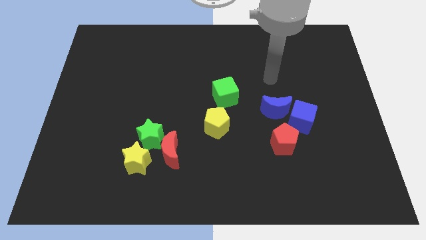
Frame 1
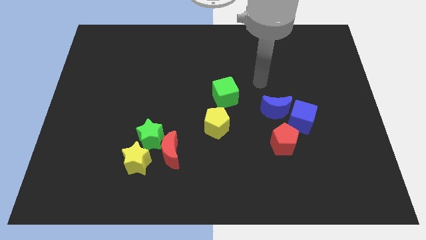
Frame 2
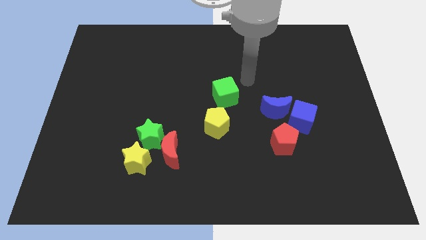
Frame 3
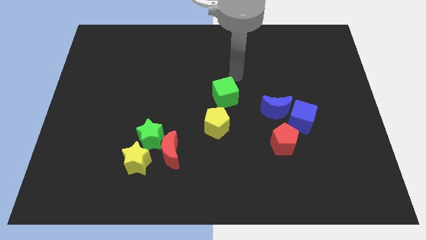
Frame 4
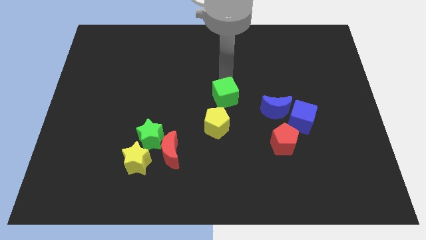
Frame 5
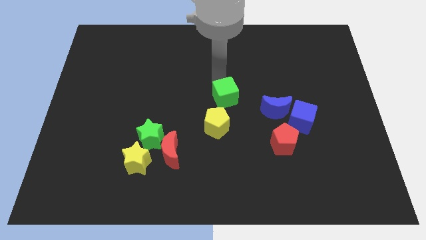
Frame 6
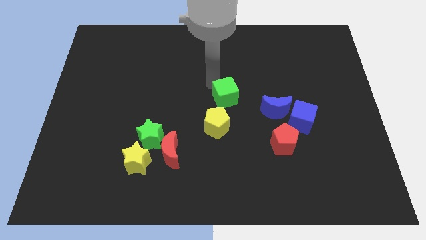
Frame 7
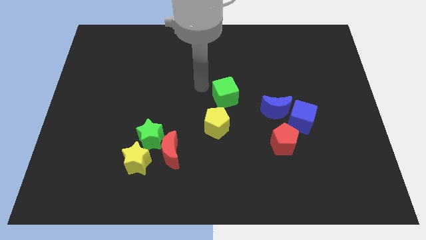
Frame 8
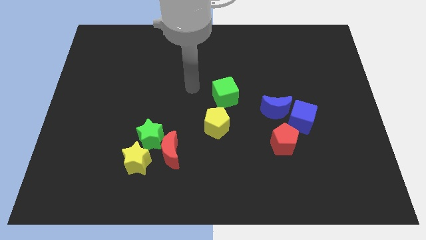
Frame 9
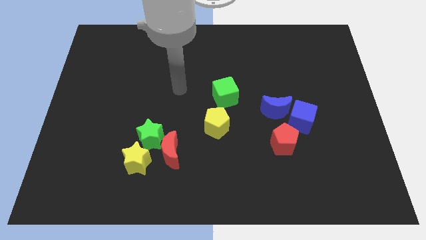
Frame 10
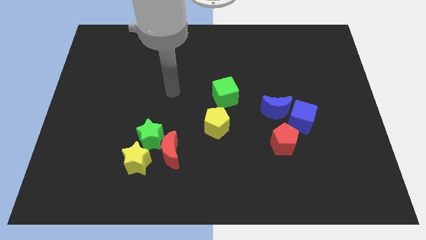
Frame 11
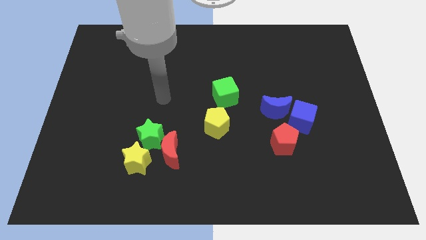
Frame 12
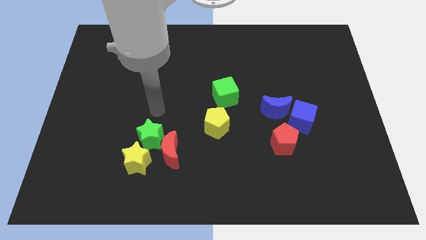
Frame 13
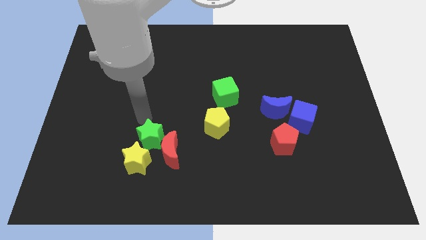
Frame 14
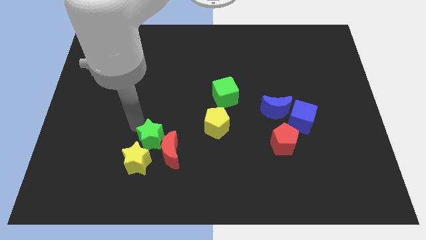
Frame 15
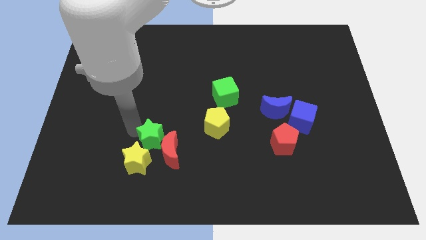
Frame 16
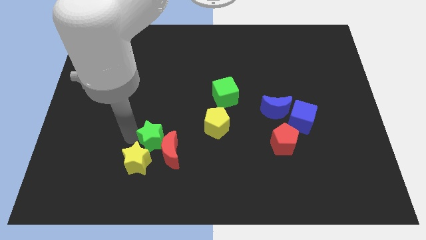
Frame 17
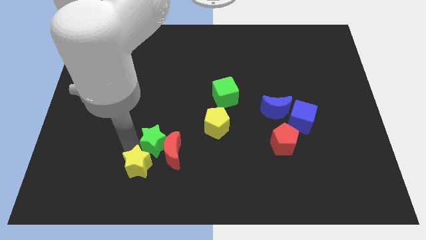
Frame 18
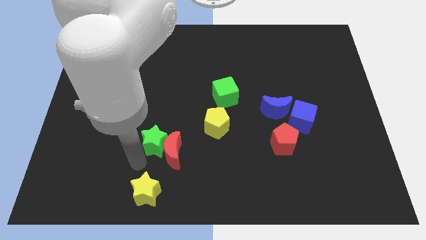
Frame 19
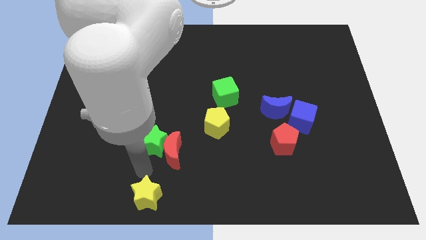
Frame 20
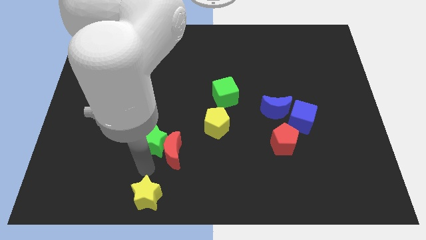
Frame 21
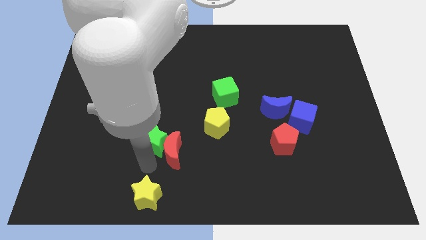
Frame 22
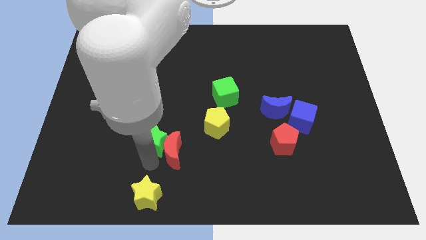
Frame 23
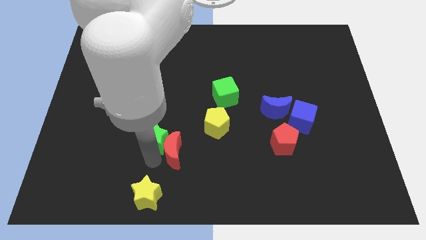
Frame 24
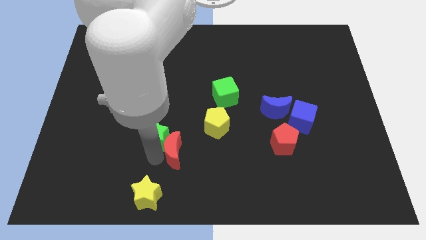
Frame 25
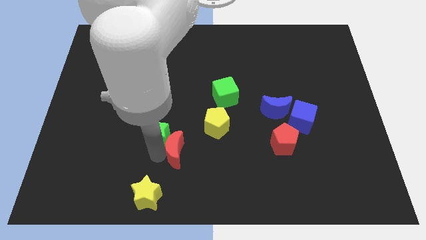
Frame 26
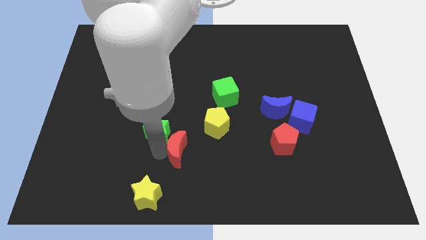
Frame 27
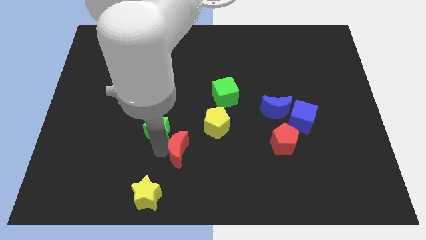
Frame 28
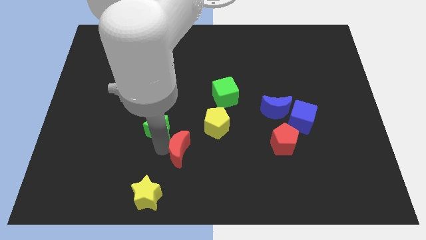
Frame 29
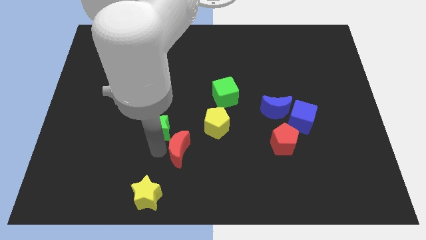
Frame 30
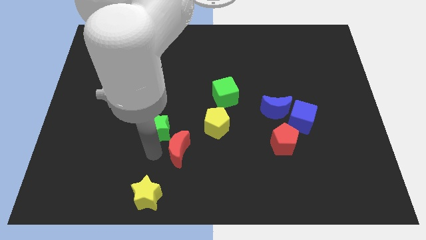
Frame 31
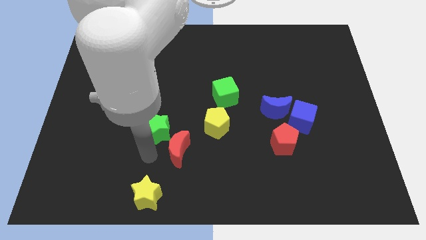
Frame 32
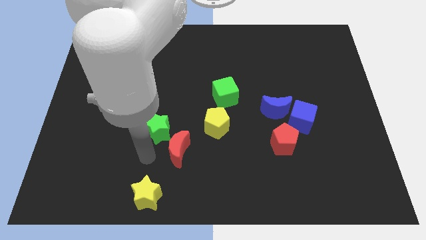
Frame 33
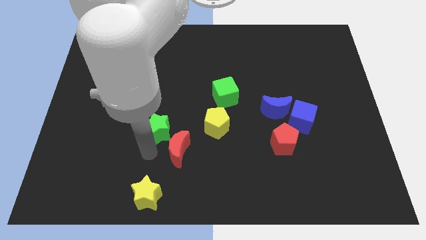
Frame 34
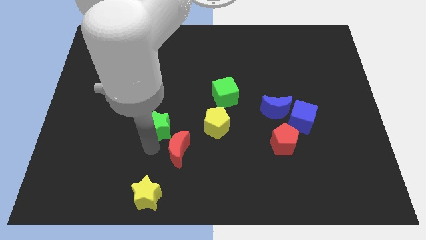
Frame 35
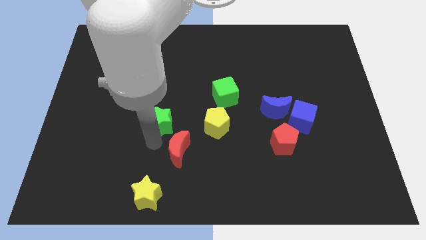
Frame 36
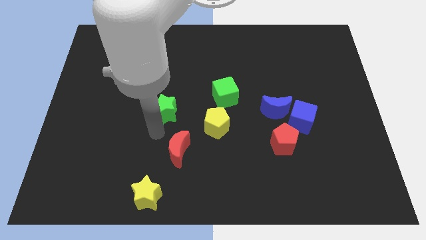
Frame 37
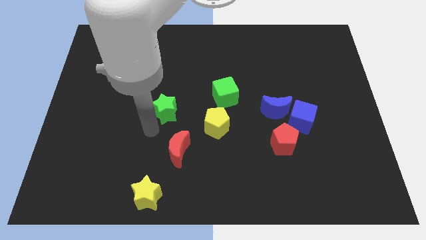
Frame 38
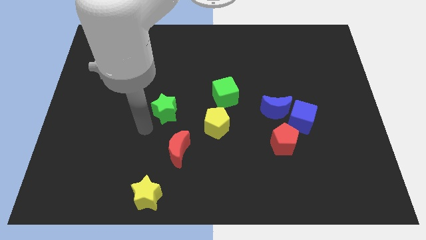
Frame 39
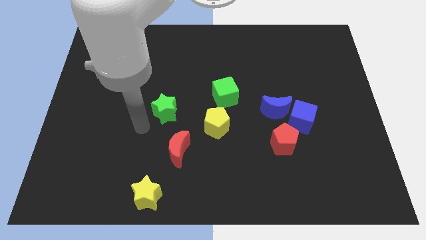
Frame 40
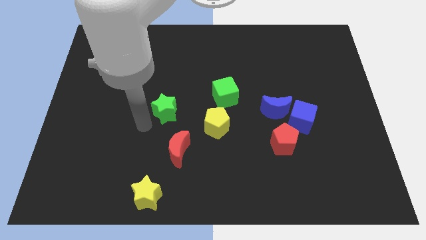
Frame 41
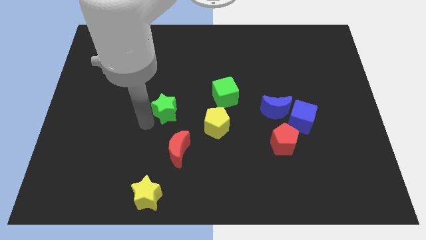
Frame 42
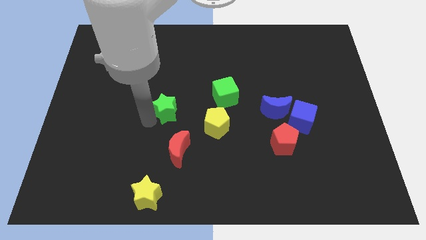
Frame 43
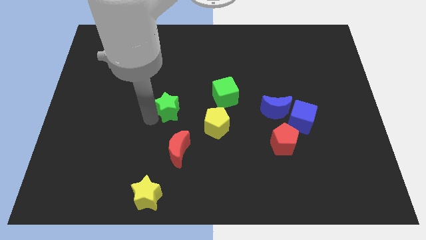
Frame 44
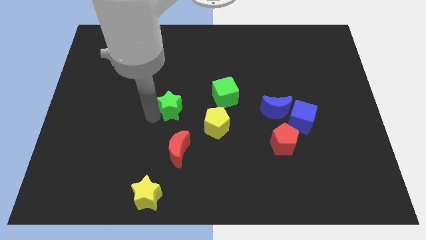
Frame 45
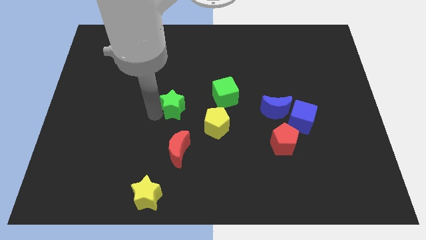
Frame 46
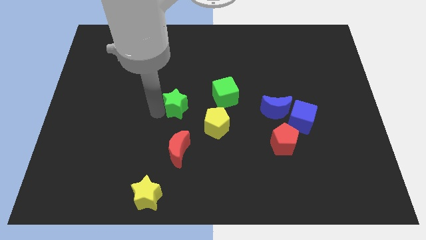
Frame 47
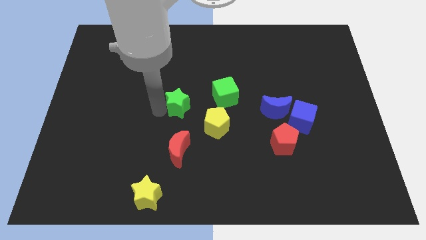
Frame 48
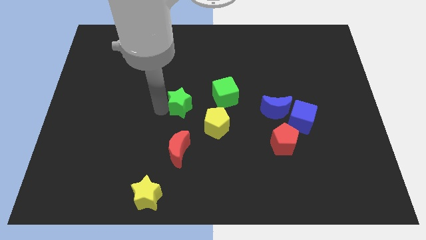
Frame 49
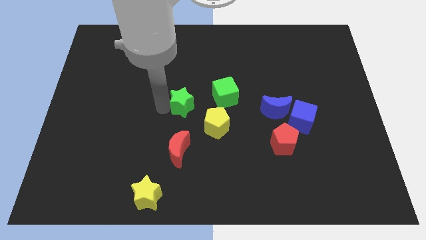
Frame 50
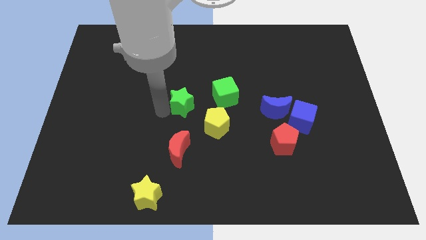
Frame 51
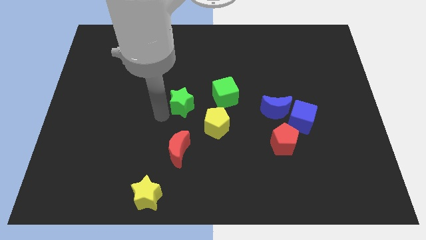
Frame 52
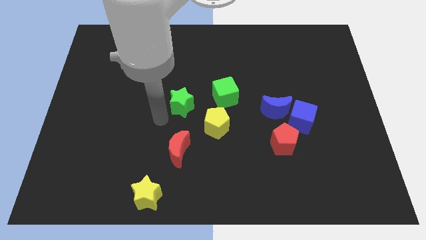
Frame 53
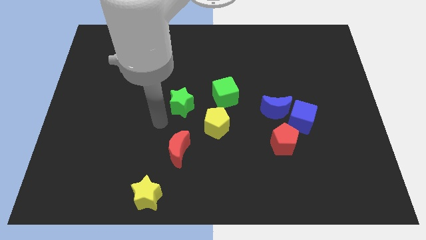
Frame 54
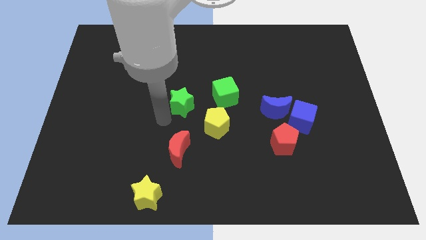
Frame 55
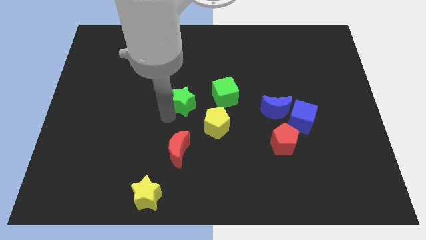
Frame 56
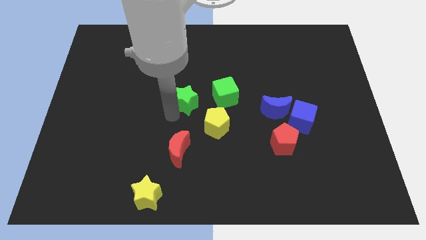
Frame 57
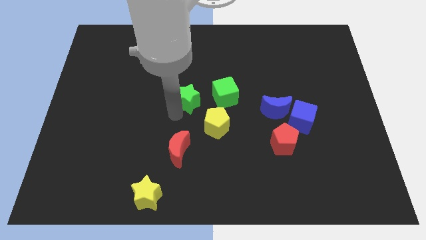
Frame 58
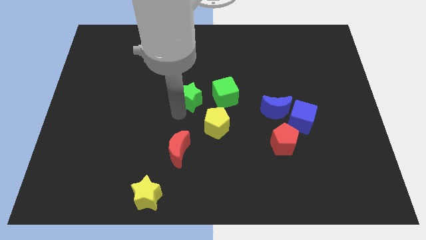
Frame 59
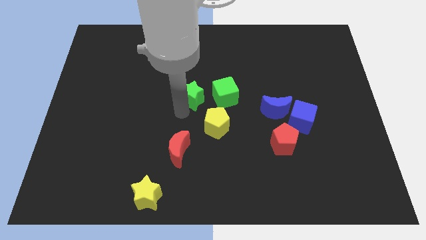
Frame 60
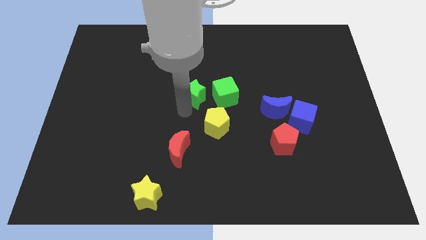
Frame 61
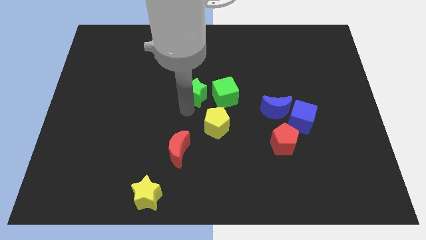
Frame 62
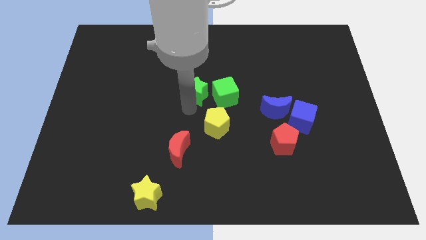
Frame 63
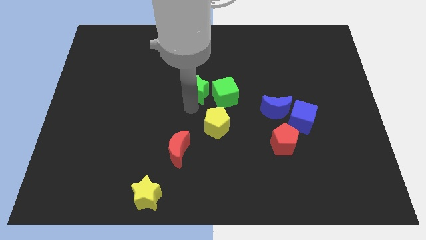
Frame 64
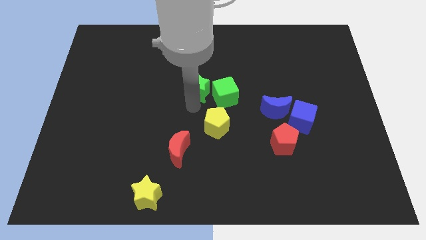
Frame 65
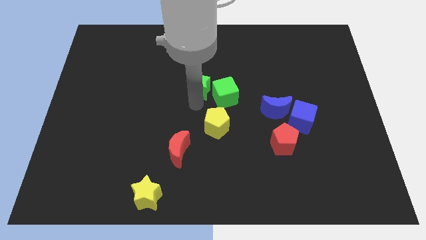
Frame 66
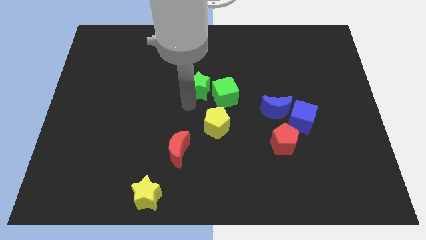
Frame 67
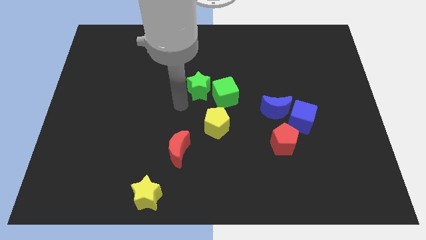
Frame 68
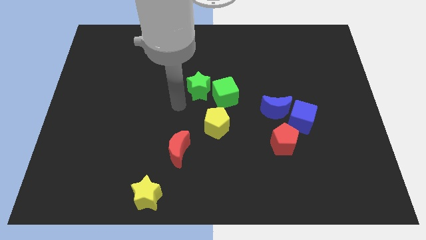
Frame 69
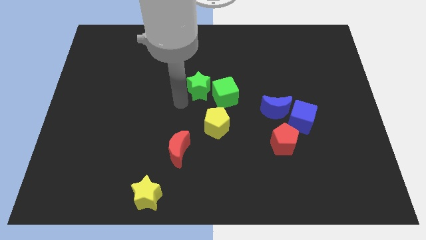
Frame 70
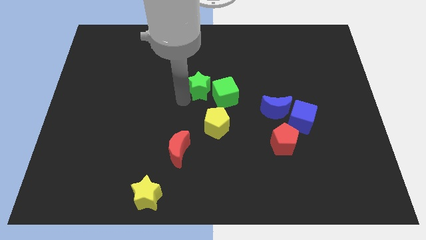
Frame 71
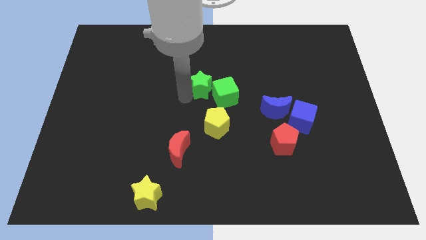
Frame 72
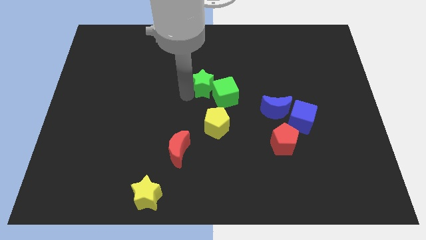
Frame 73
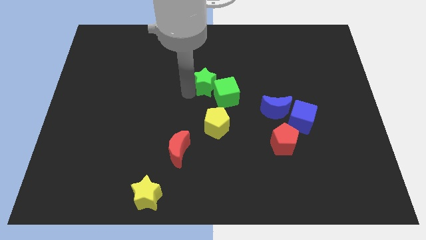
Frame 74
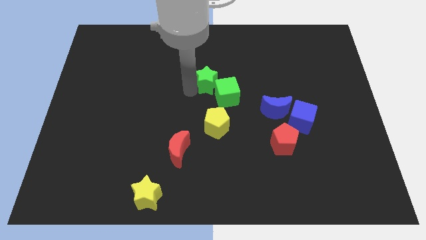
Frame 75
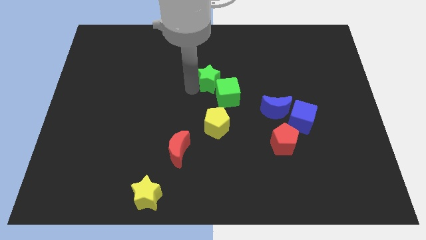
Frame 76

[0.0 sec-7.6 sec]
push the green star up and right

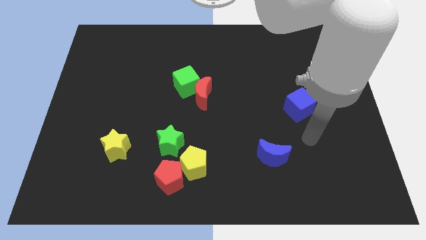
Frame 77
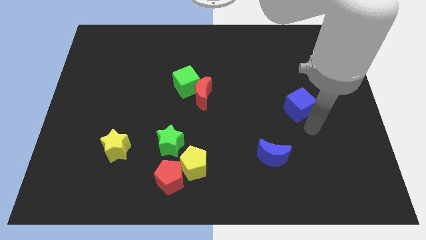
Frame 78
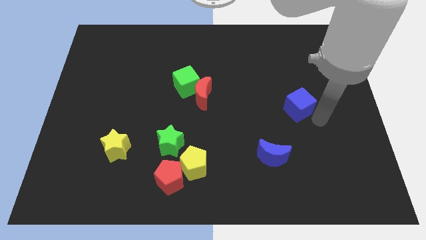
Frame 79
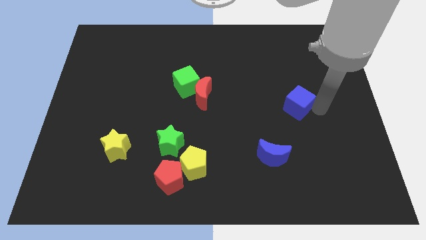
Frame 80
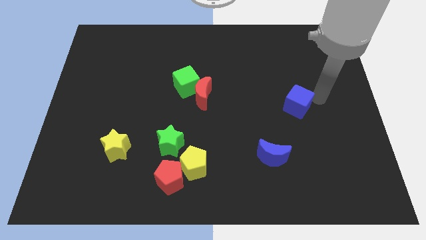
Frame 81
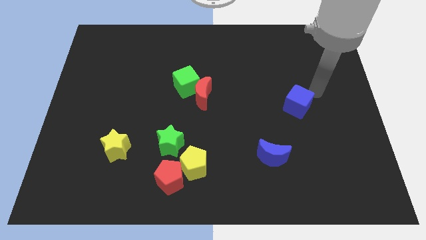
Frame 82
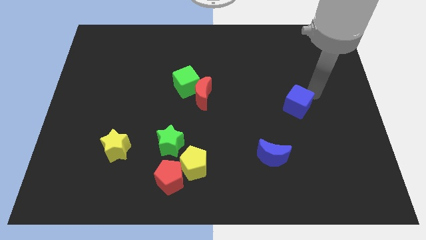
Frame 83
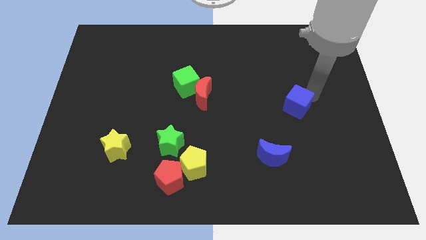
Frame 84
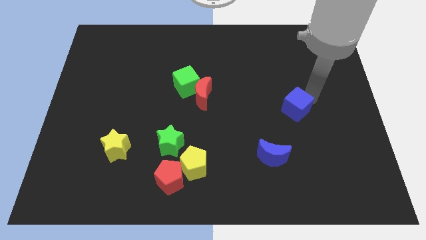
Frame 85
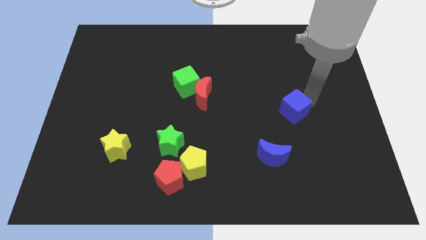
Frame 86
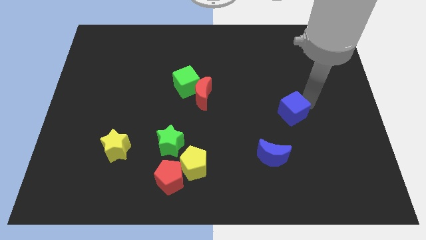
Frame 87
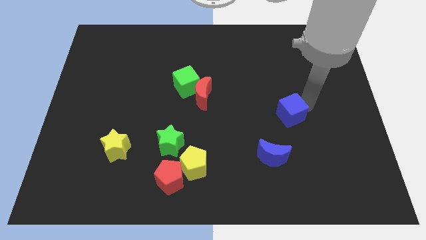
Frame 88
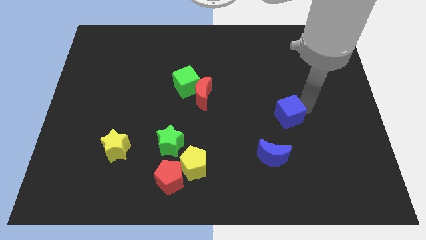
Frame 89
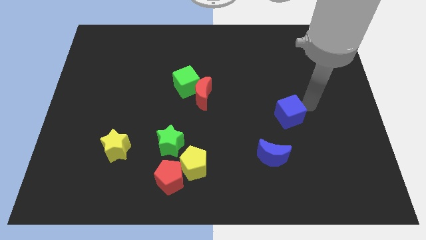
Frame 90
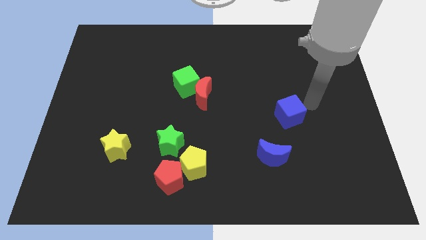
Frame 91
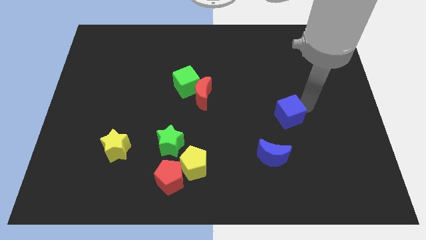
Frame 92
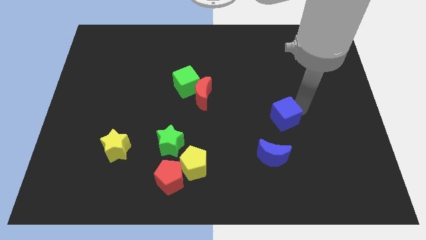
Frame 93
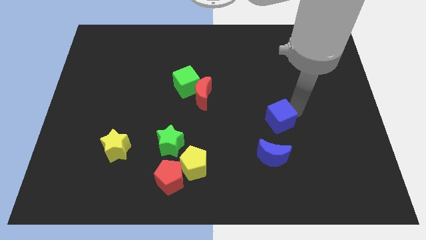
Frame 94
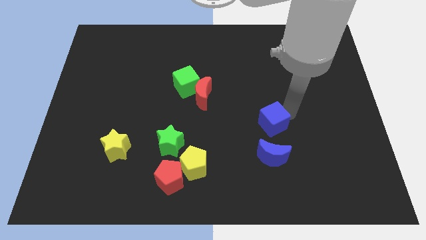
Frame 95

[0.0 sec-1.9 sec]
slightly push the blue cube down and to the left
